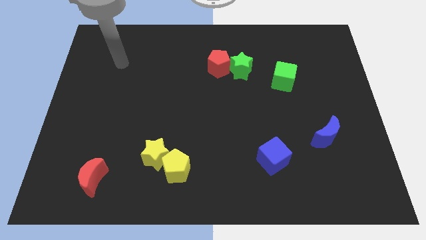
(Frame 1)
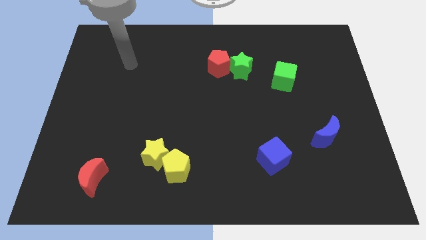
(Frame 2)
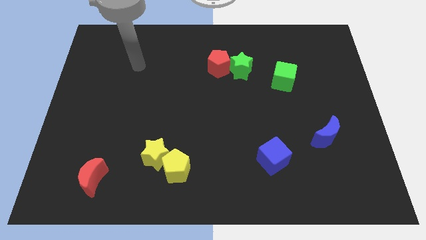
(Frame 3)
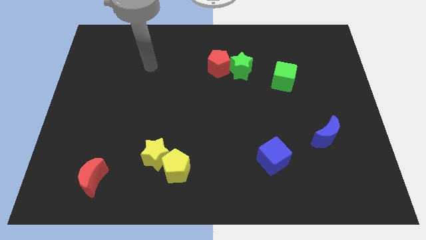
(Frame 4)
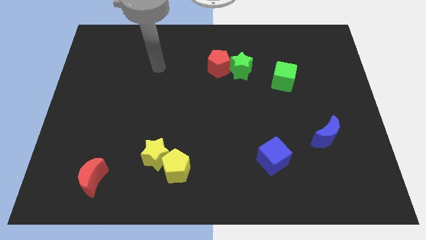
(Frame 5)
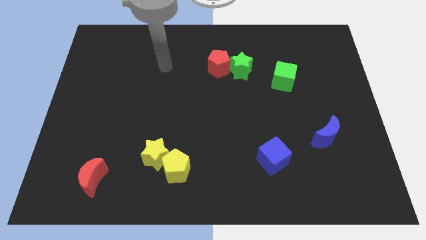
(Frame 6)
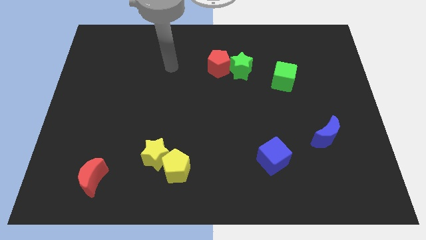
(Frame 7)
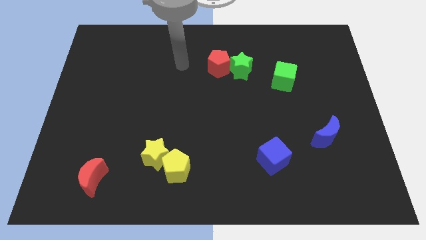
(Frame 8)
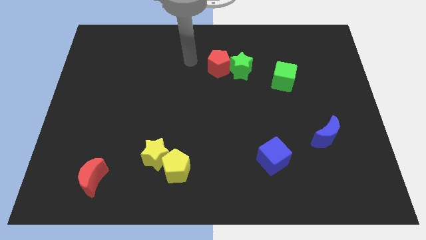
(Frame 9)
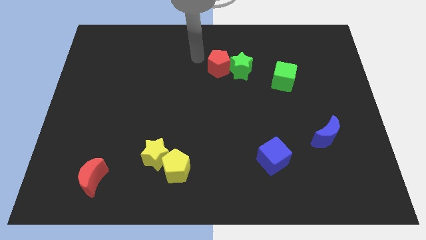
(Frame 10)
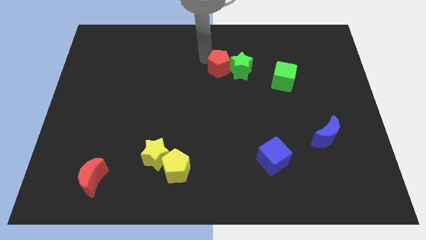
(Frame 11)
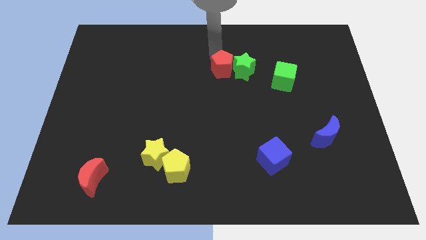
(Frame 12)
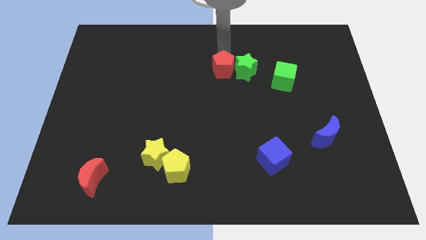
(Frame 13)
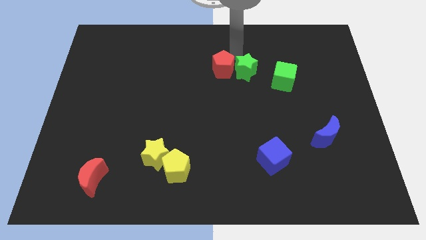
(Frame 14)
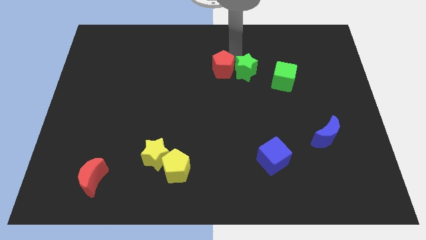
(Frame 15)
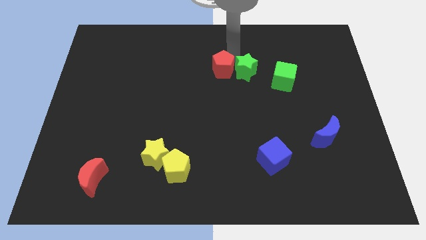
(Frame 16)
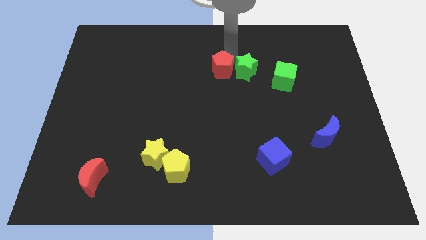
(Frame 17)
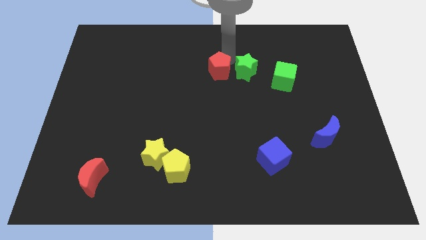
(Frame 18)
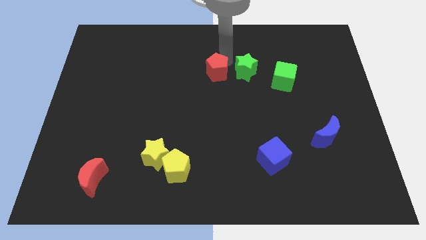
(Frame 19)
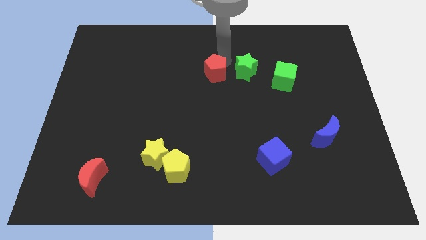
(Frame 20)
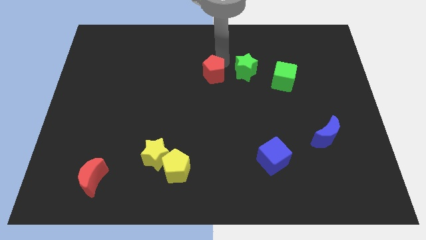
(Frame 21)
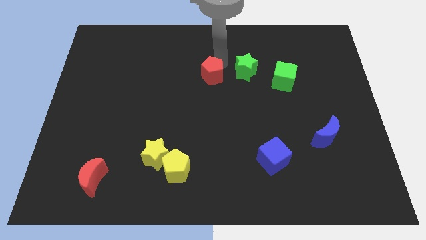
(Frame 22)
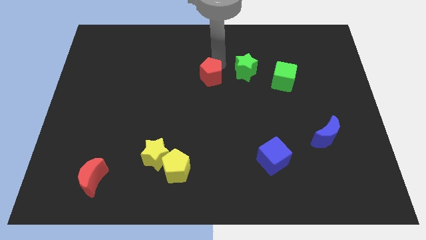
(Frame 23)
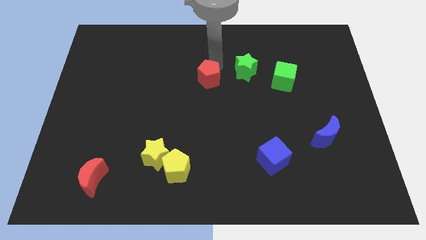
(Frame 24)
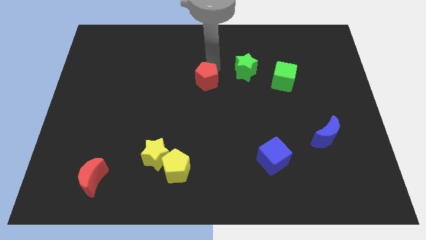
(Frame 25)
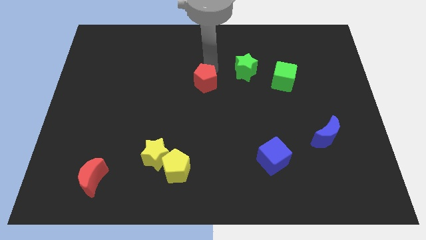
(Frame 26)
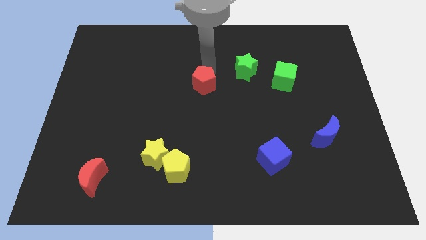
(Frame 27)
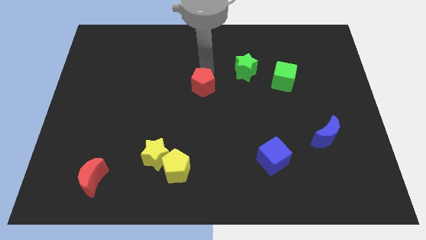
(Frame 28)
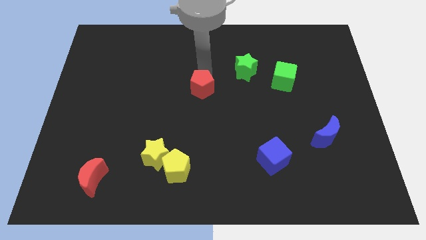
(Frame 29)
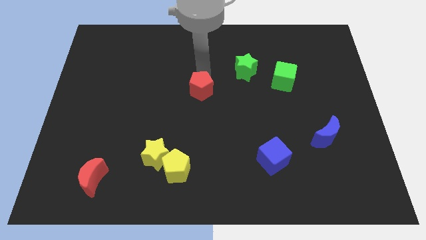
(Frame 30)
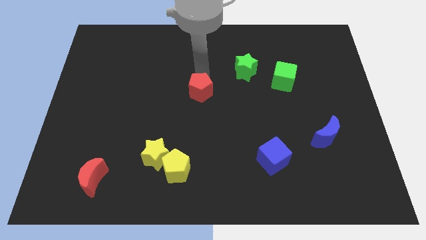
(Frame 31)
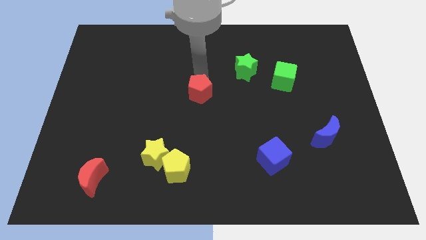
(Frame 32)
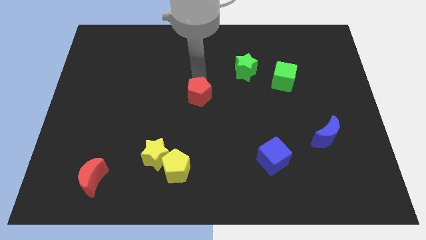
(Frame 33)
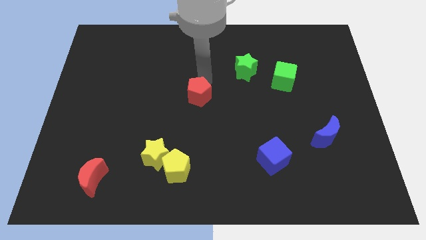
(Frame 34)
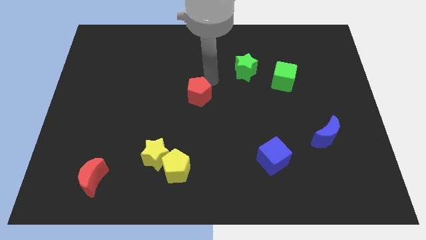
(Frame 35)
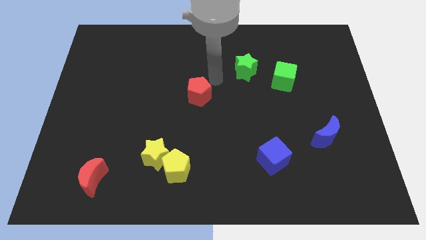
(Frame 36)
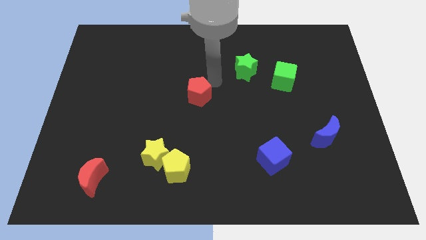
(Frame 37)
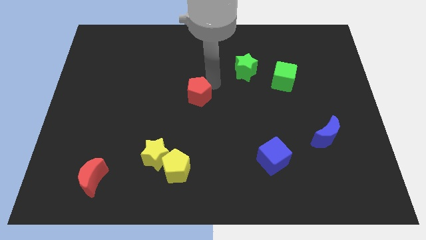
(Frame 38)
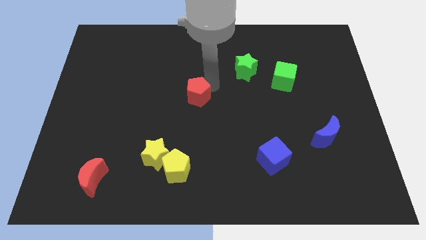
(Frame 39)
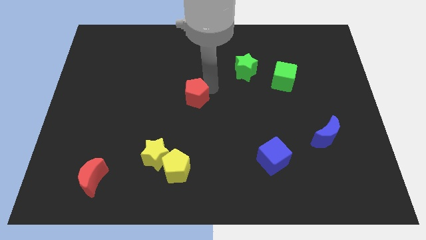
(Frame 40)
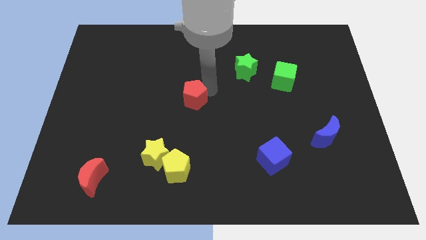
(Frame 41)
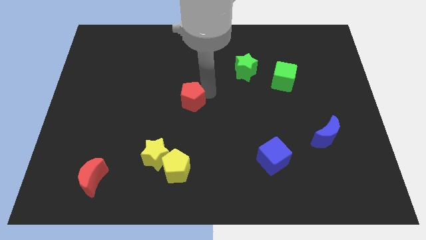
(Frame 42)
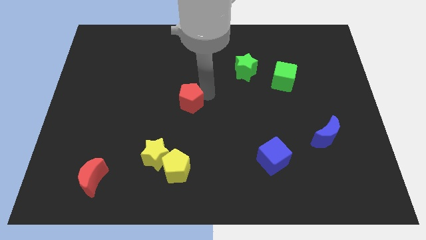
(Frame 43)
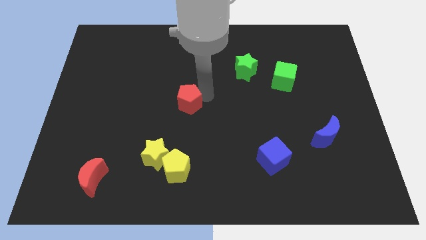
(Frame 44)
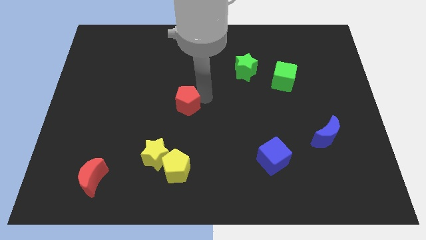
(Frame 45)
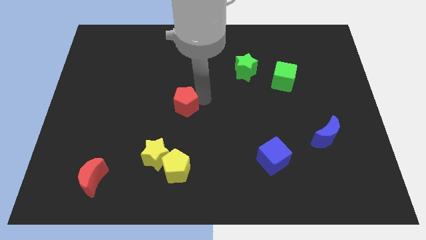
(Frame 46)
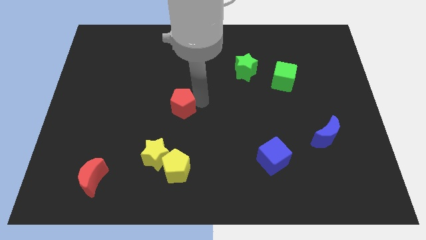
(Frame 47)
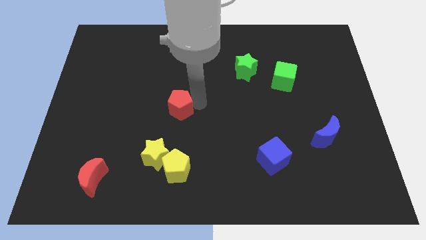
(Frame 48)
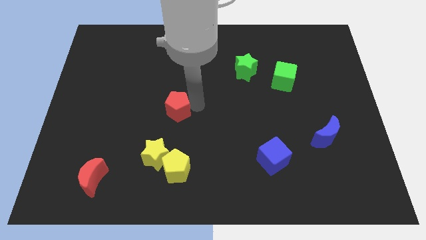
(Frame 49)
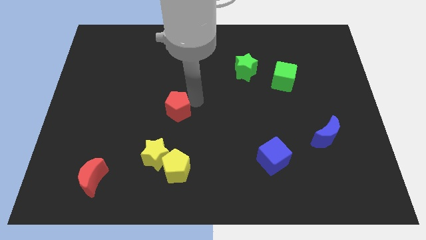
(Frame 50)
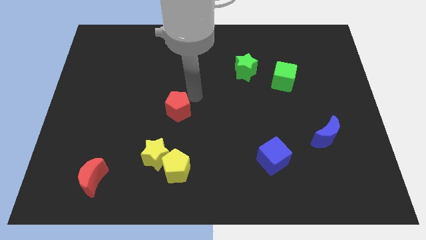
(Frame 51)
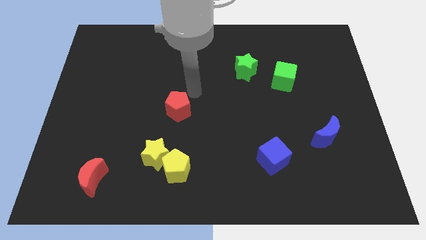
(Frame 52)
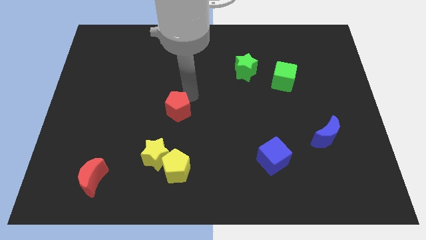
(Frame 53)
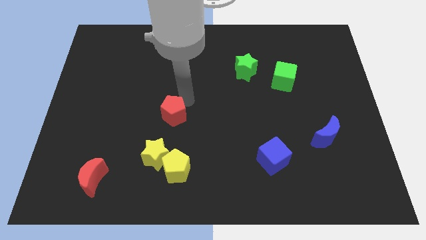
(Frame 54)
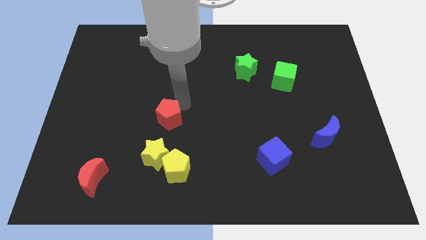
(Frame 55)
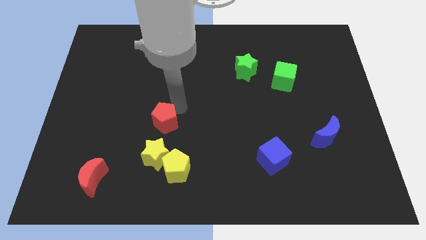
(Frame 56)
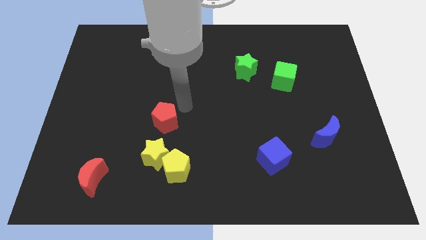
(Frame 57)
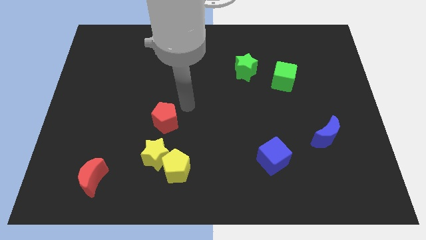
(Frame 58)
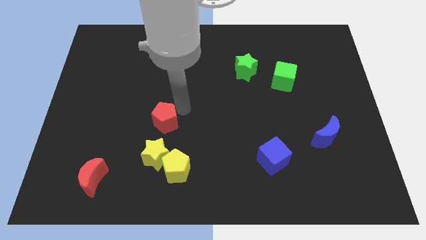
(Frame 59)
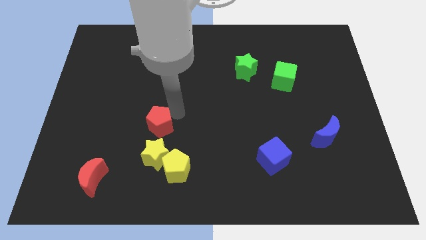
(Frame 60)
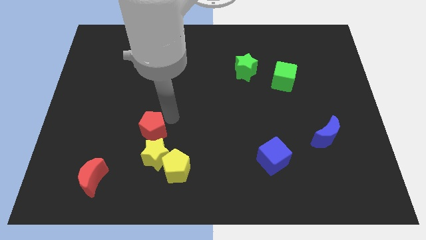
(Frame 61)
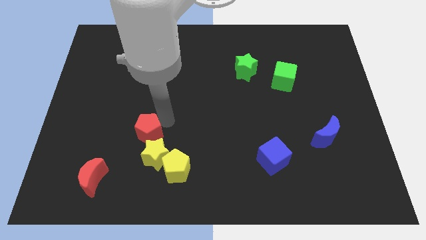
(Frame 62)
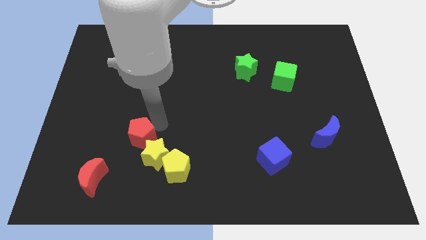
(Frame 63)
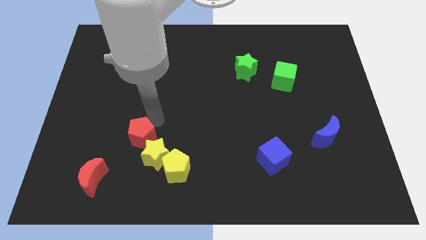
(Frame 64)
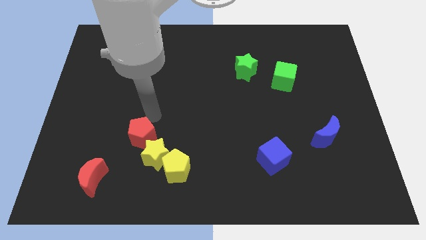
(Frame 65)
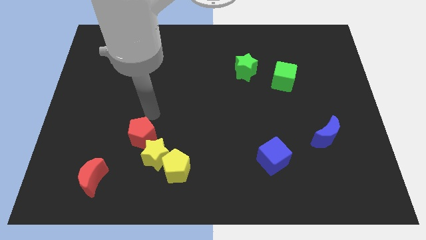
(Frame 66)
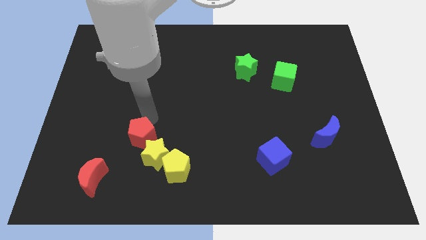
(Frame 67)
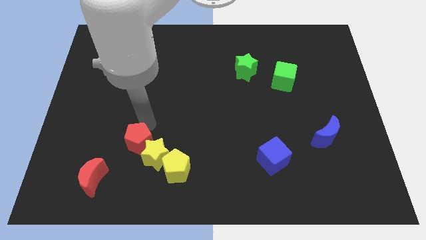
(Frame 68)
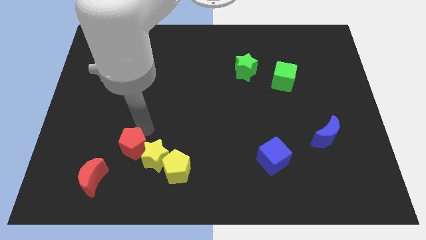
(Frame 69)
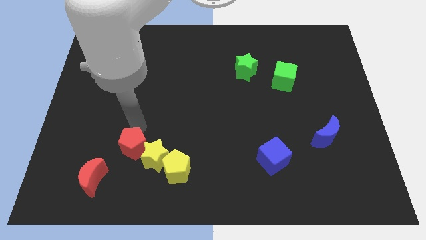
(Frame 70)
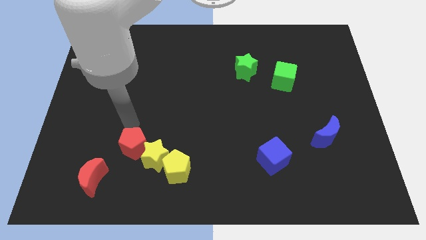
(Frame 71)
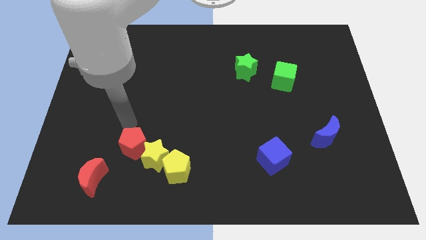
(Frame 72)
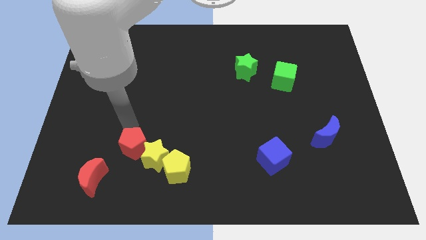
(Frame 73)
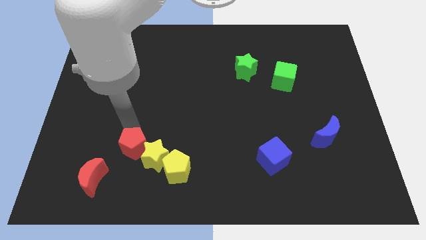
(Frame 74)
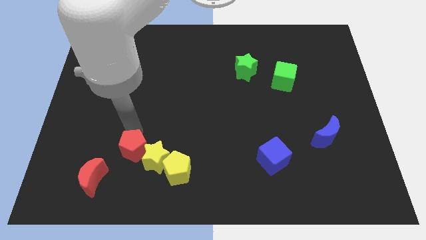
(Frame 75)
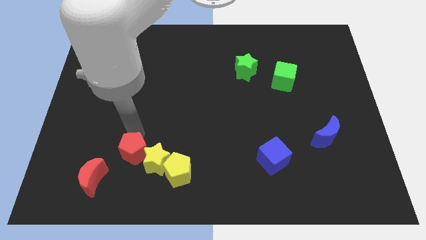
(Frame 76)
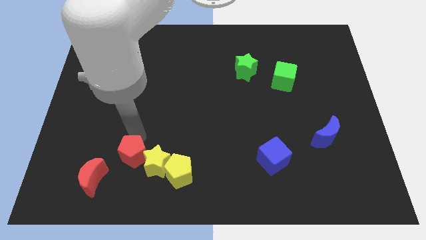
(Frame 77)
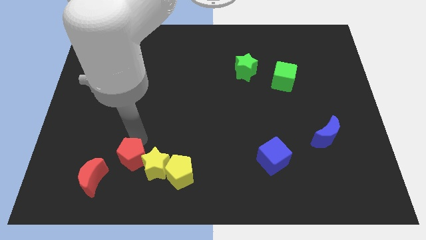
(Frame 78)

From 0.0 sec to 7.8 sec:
put the red pentagon to the right side of the red moon
